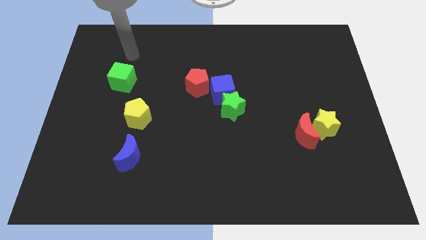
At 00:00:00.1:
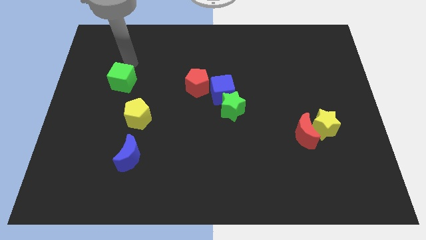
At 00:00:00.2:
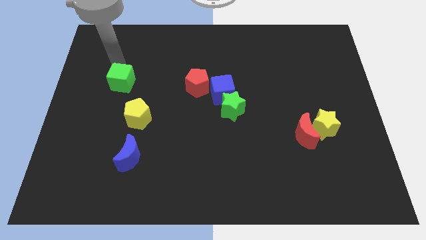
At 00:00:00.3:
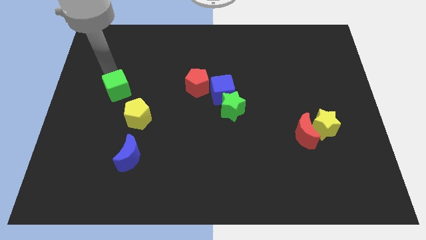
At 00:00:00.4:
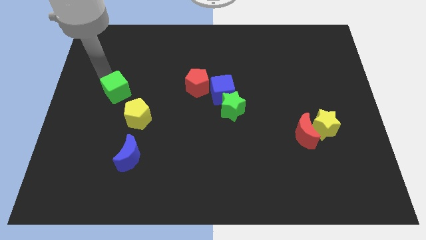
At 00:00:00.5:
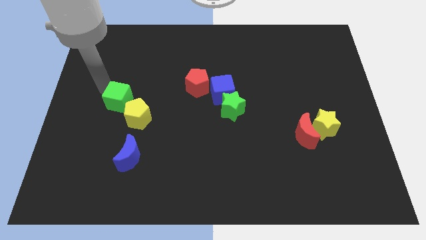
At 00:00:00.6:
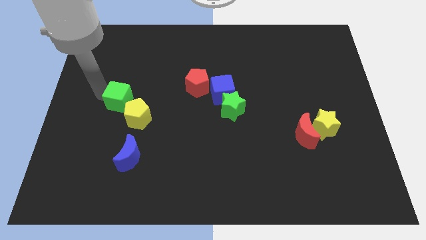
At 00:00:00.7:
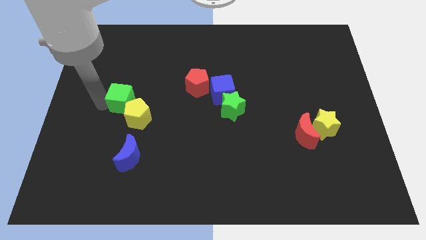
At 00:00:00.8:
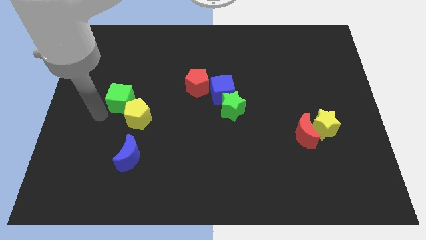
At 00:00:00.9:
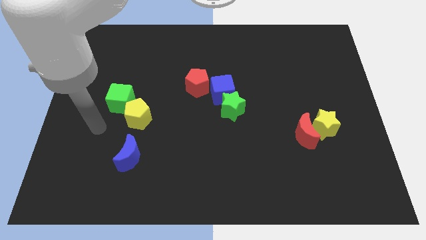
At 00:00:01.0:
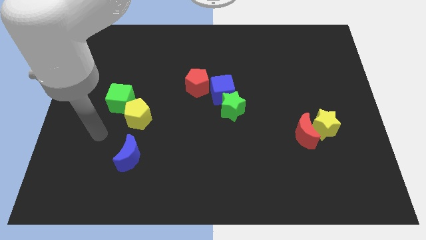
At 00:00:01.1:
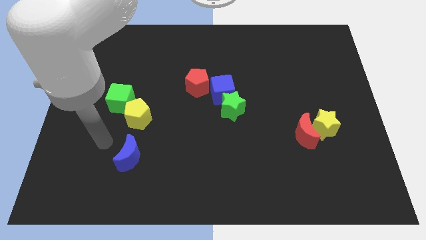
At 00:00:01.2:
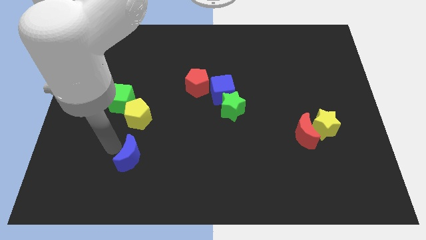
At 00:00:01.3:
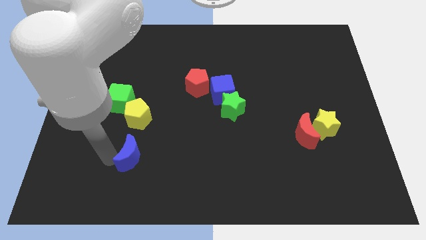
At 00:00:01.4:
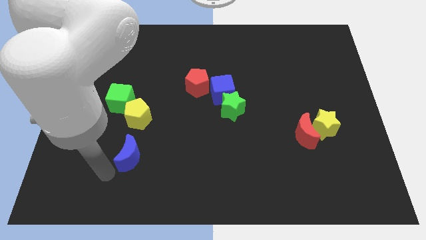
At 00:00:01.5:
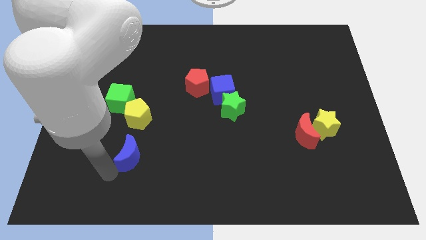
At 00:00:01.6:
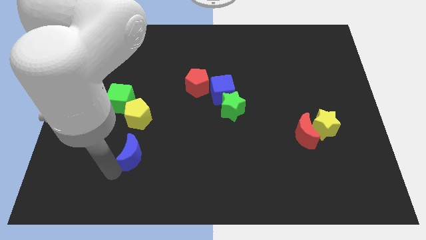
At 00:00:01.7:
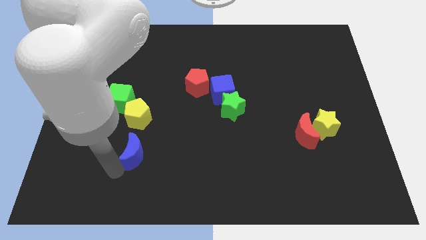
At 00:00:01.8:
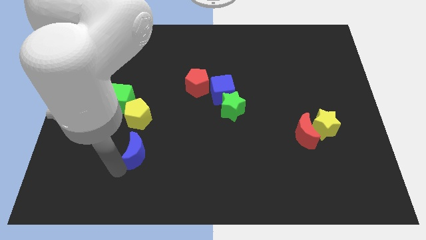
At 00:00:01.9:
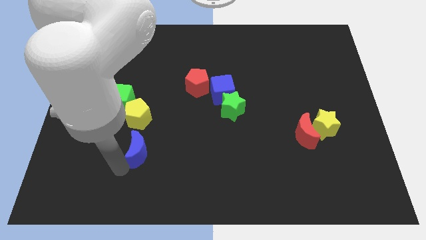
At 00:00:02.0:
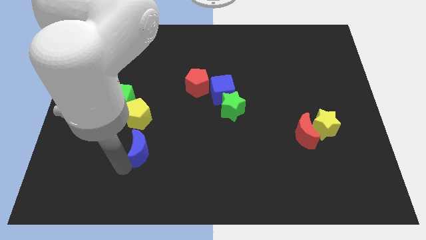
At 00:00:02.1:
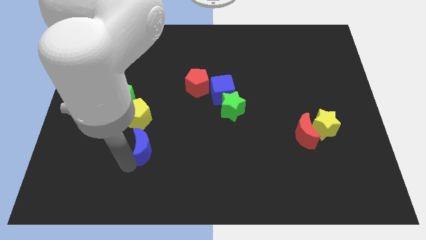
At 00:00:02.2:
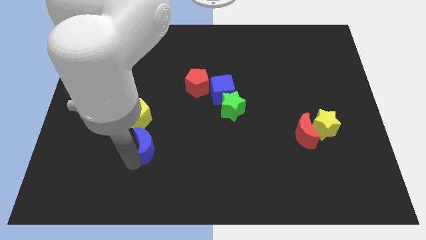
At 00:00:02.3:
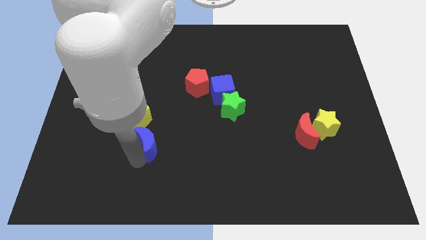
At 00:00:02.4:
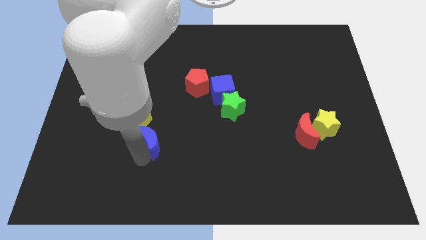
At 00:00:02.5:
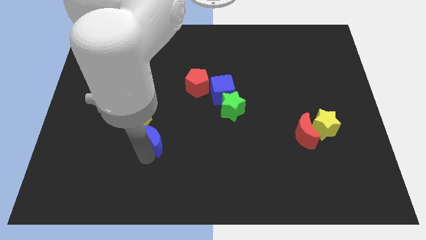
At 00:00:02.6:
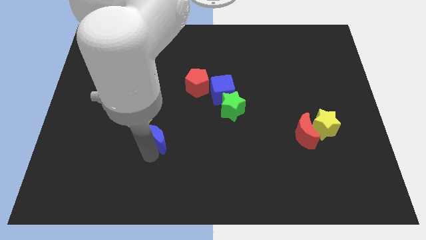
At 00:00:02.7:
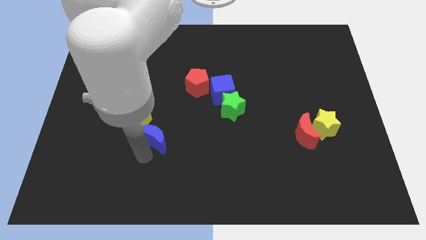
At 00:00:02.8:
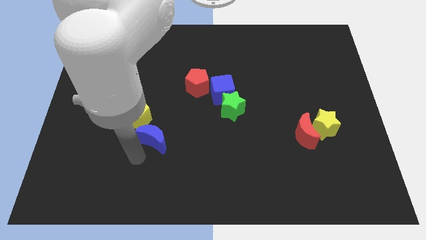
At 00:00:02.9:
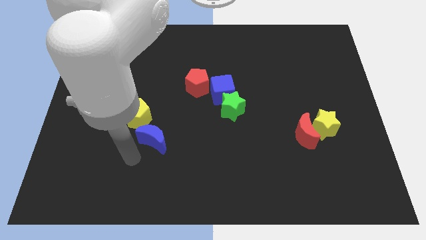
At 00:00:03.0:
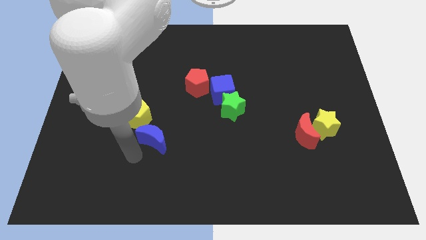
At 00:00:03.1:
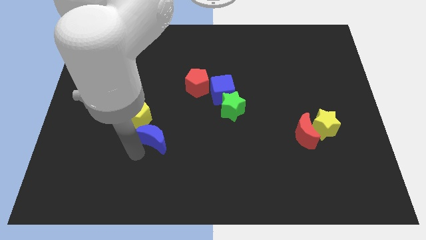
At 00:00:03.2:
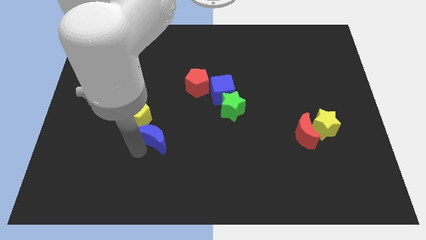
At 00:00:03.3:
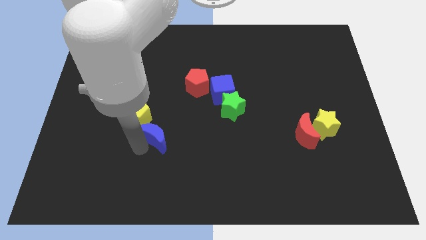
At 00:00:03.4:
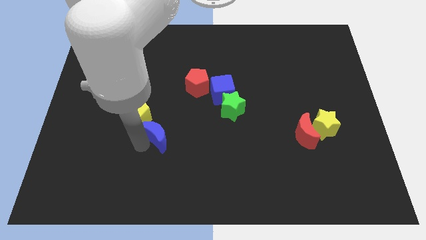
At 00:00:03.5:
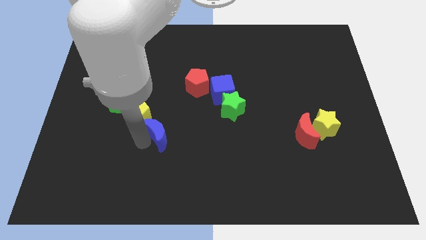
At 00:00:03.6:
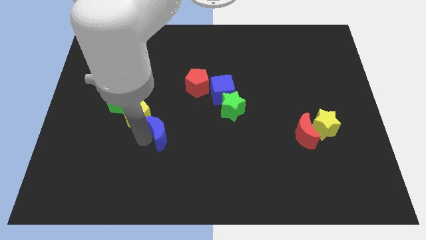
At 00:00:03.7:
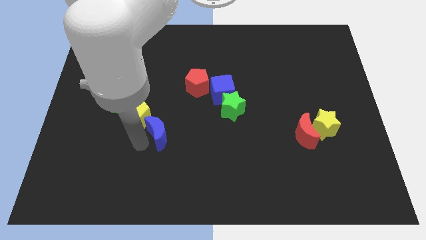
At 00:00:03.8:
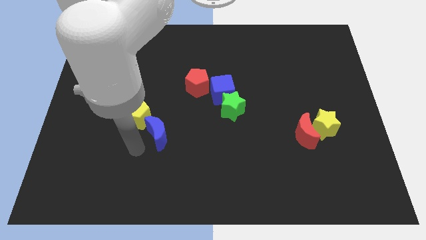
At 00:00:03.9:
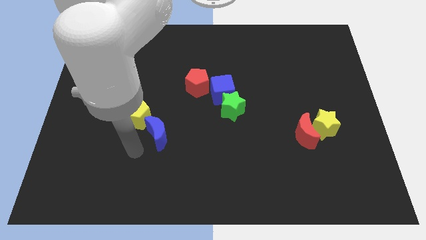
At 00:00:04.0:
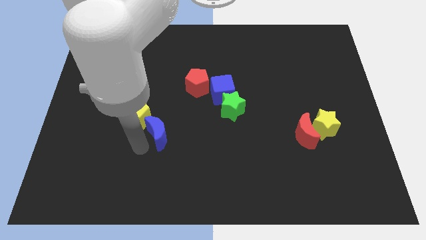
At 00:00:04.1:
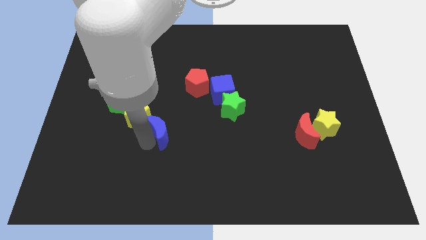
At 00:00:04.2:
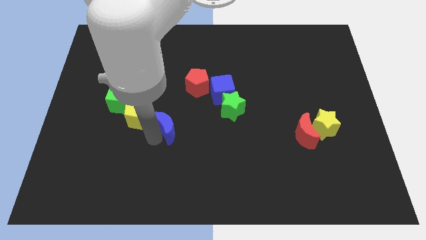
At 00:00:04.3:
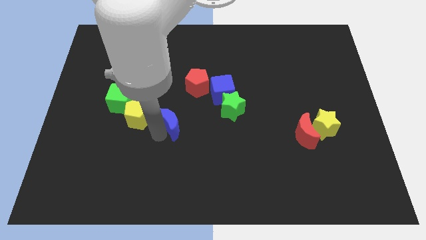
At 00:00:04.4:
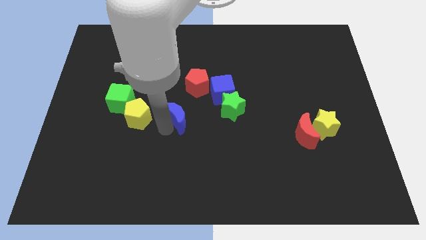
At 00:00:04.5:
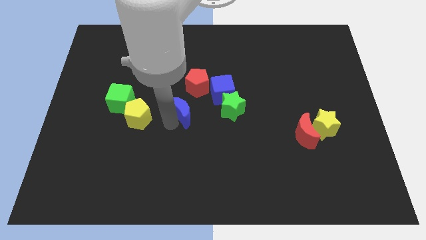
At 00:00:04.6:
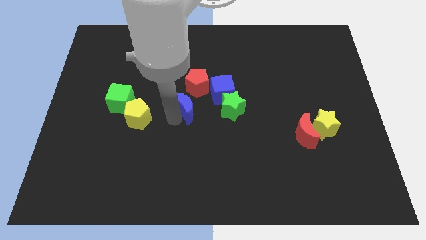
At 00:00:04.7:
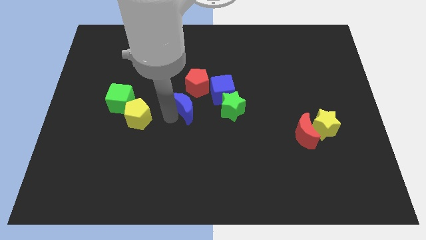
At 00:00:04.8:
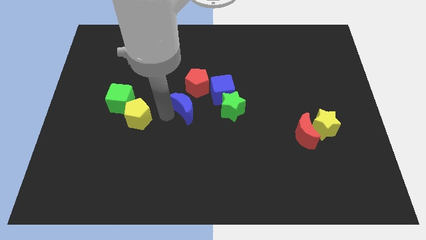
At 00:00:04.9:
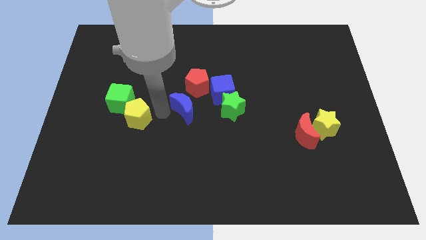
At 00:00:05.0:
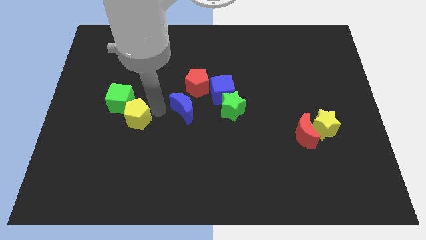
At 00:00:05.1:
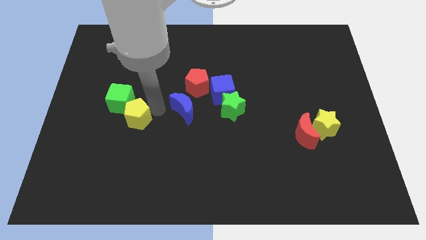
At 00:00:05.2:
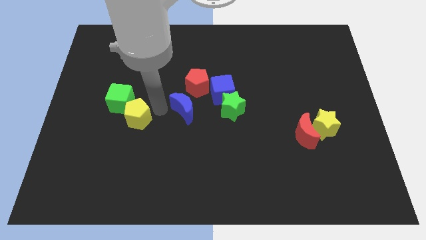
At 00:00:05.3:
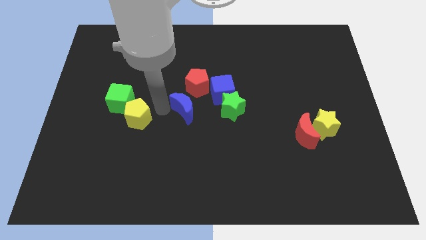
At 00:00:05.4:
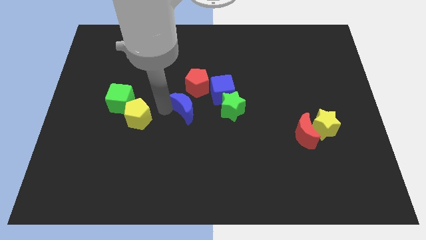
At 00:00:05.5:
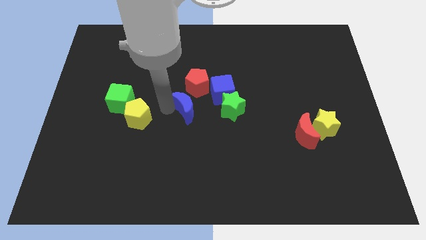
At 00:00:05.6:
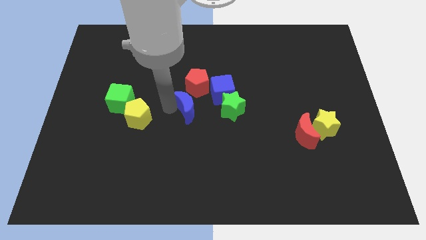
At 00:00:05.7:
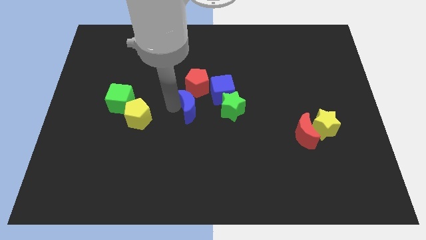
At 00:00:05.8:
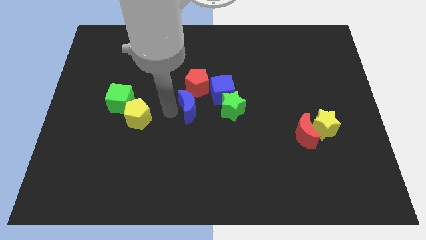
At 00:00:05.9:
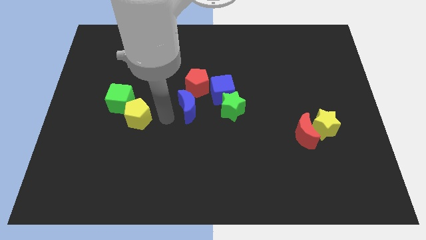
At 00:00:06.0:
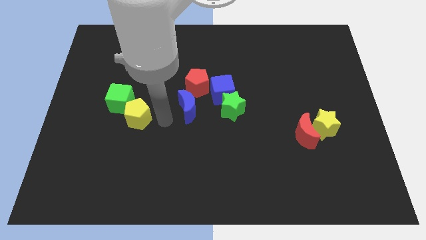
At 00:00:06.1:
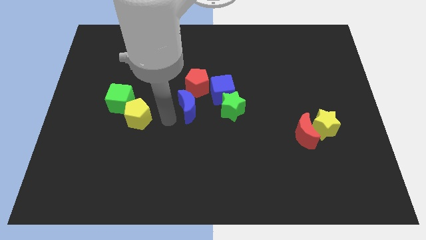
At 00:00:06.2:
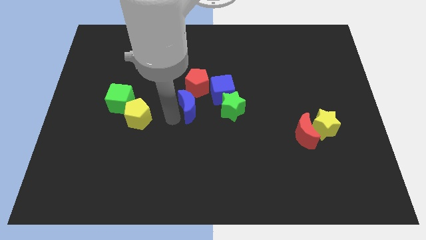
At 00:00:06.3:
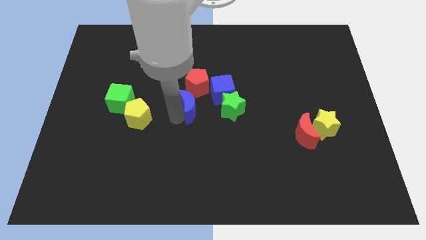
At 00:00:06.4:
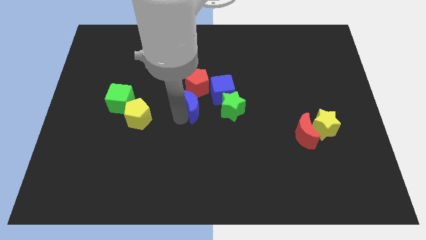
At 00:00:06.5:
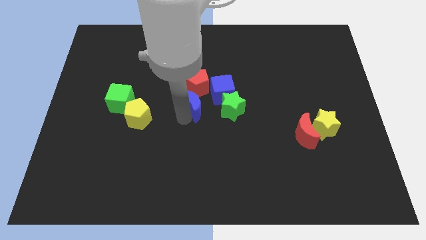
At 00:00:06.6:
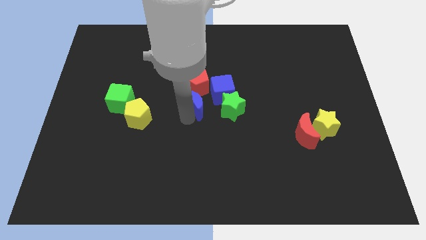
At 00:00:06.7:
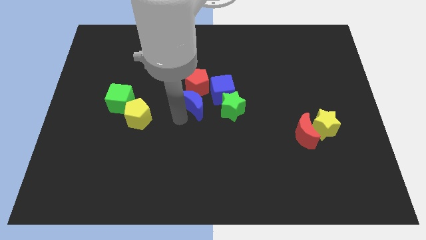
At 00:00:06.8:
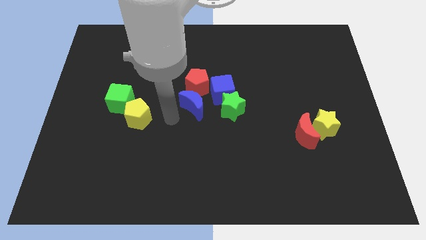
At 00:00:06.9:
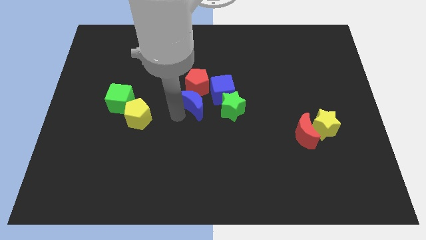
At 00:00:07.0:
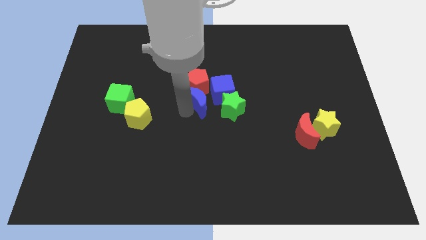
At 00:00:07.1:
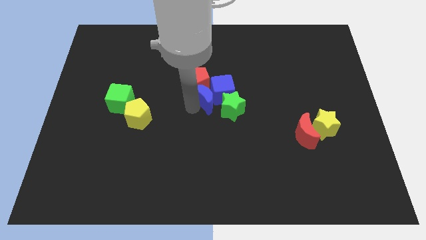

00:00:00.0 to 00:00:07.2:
put the blue moon to the blue cube
